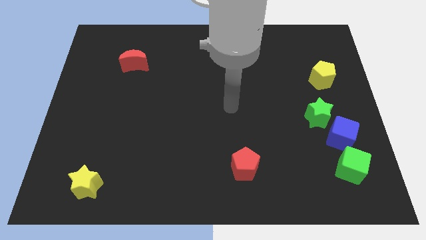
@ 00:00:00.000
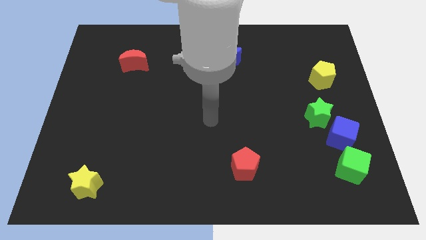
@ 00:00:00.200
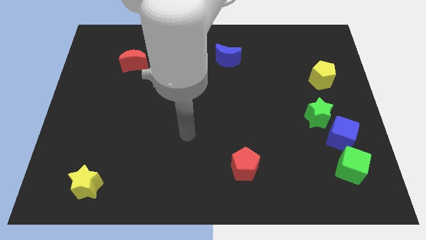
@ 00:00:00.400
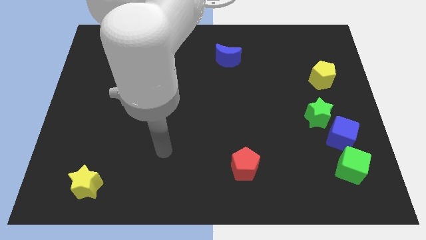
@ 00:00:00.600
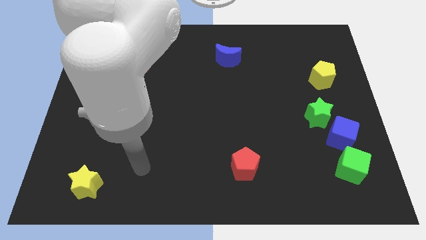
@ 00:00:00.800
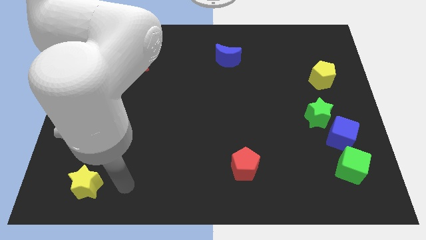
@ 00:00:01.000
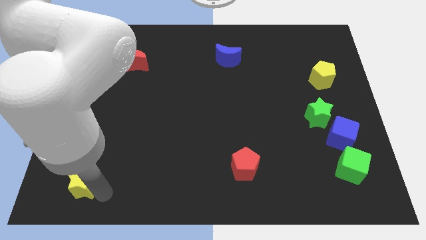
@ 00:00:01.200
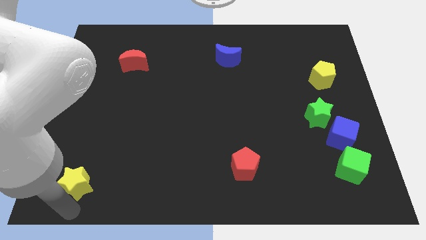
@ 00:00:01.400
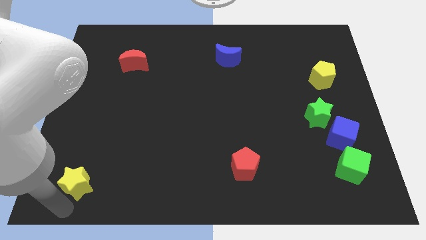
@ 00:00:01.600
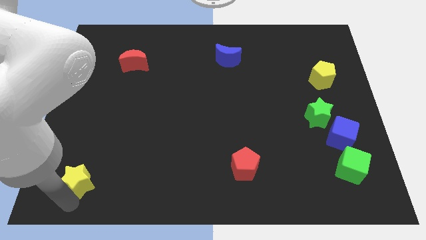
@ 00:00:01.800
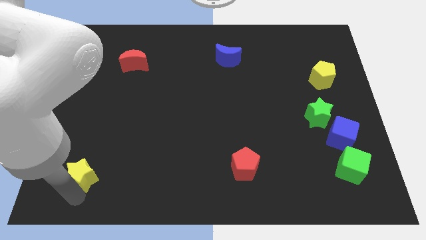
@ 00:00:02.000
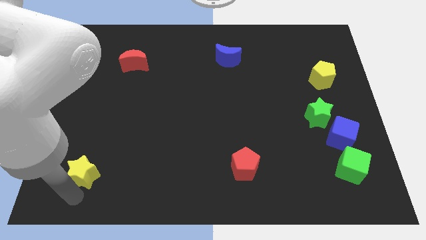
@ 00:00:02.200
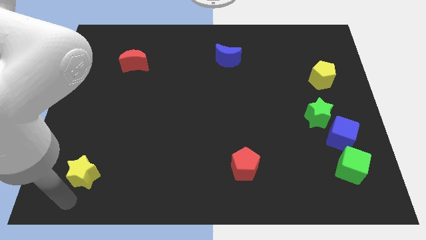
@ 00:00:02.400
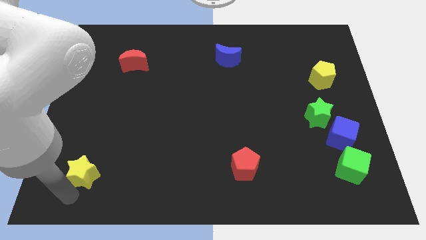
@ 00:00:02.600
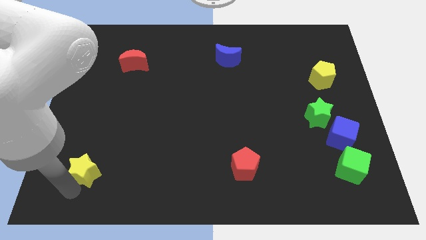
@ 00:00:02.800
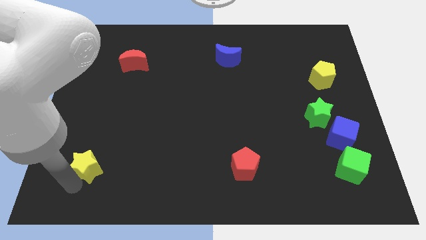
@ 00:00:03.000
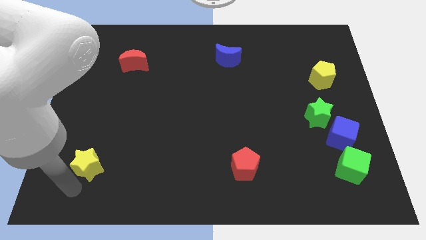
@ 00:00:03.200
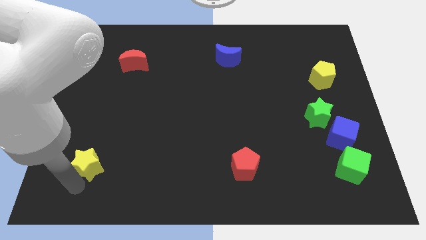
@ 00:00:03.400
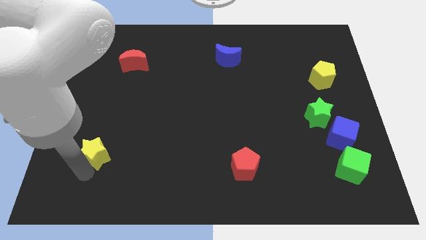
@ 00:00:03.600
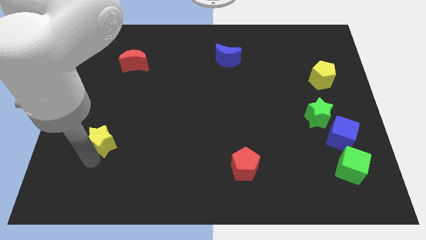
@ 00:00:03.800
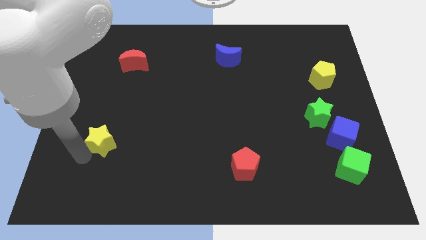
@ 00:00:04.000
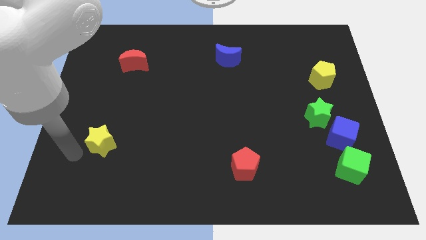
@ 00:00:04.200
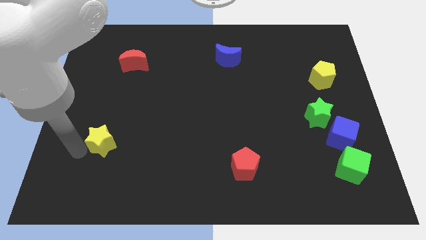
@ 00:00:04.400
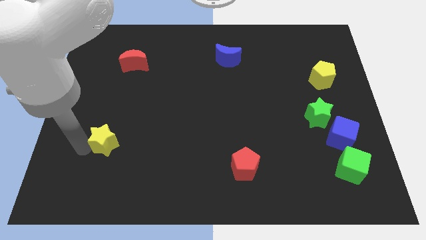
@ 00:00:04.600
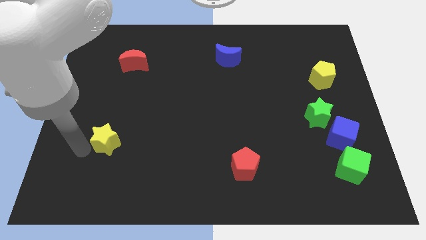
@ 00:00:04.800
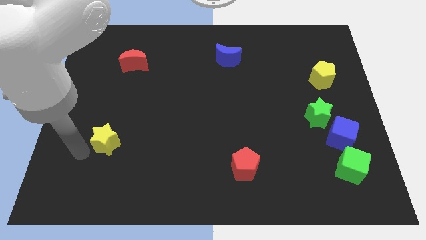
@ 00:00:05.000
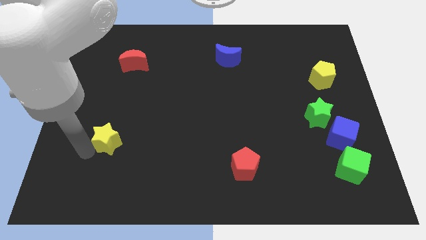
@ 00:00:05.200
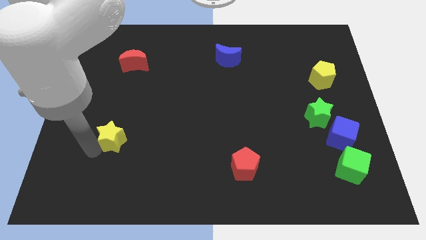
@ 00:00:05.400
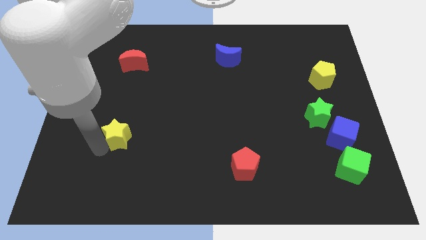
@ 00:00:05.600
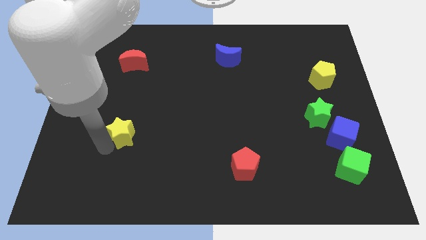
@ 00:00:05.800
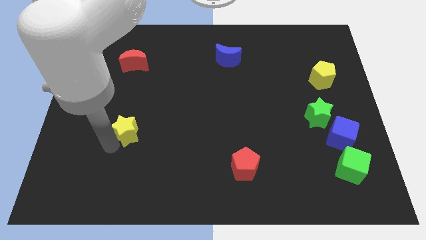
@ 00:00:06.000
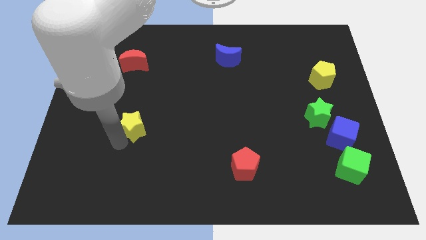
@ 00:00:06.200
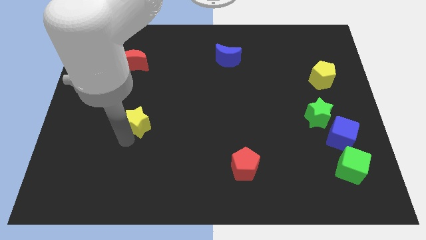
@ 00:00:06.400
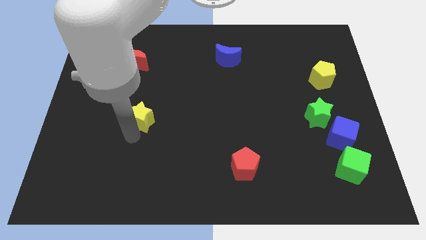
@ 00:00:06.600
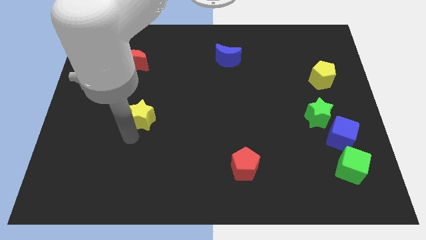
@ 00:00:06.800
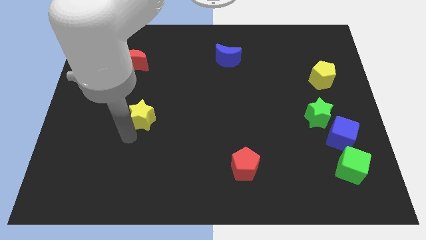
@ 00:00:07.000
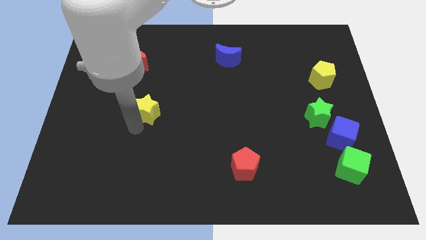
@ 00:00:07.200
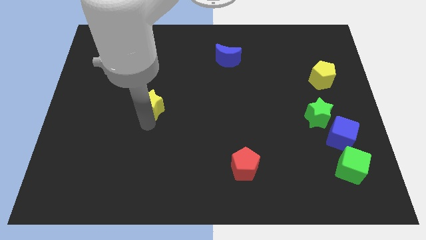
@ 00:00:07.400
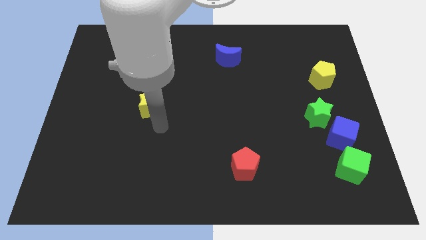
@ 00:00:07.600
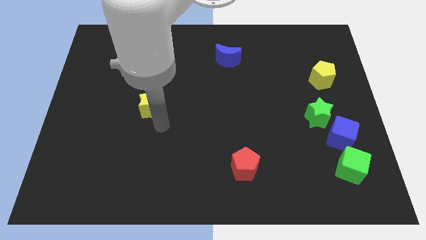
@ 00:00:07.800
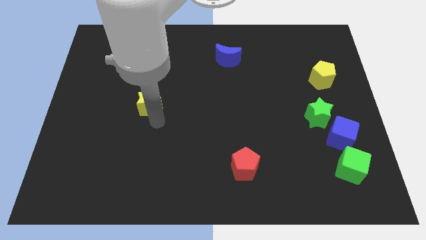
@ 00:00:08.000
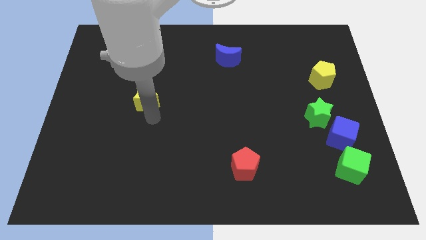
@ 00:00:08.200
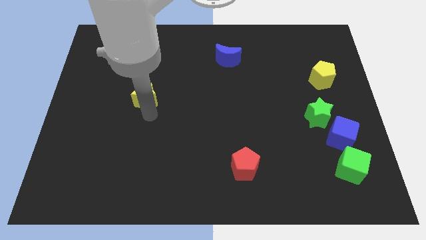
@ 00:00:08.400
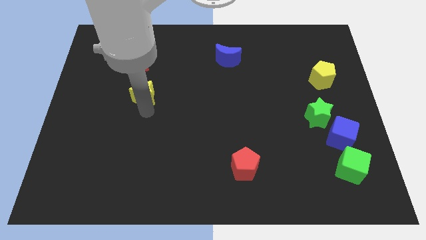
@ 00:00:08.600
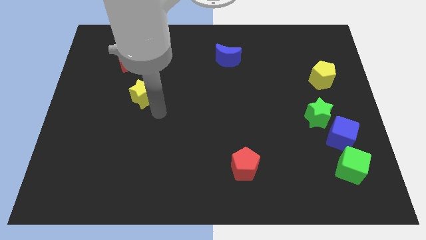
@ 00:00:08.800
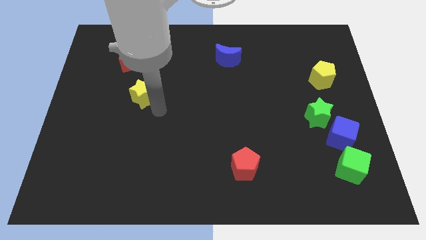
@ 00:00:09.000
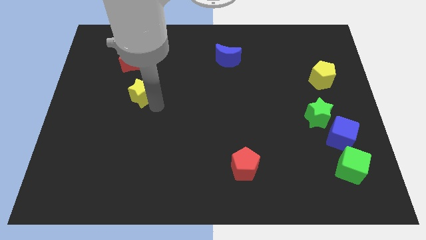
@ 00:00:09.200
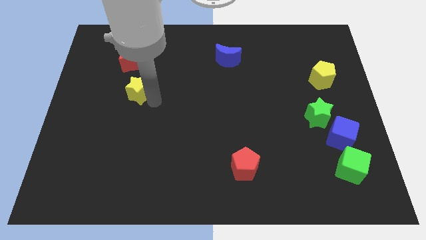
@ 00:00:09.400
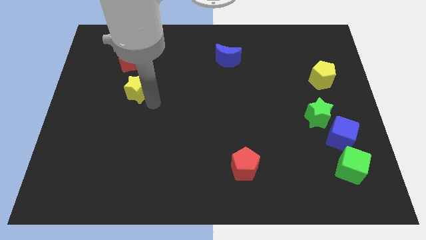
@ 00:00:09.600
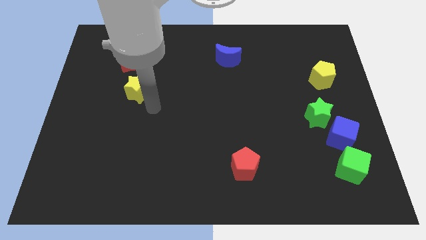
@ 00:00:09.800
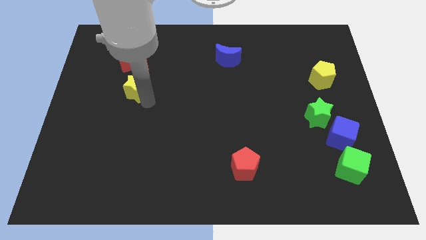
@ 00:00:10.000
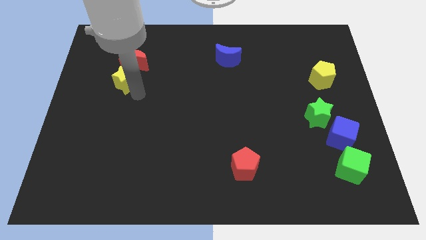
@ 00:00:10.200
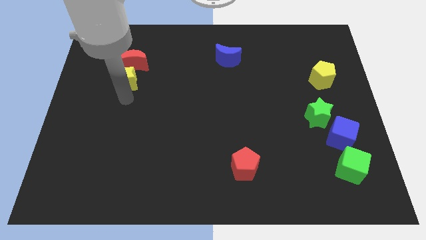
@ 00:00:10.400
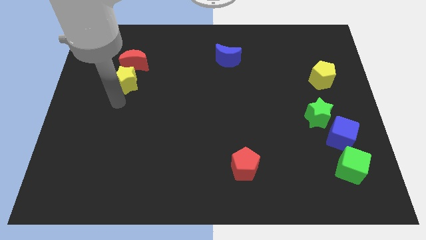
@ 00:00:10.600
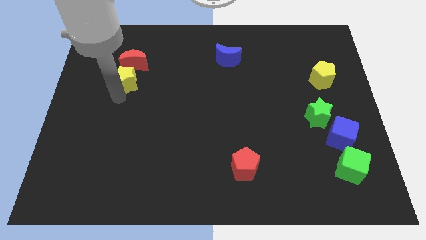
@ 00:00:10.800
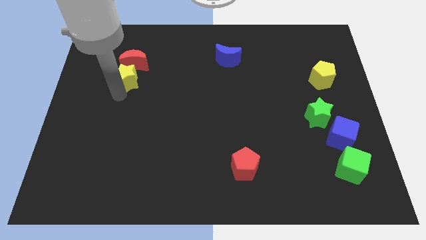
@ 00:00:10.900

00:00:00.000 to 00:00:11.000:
slide the yellow star next to the red moon
